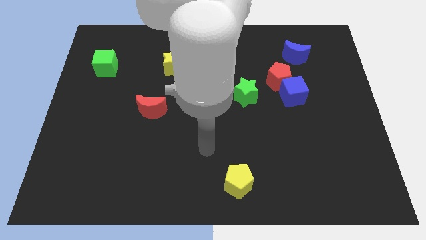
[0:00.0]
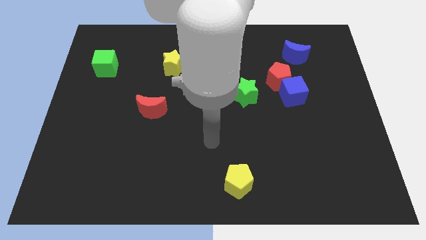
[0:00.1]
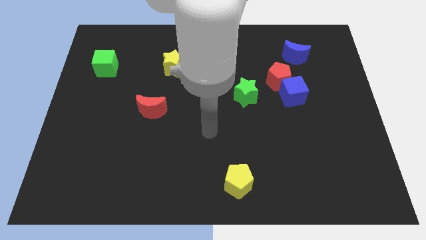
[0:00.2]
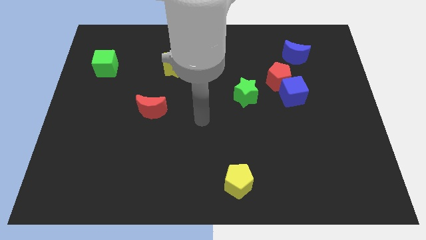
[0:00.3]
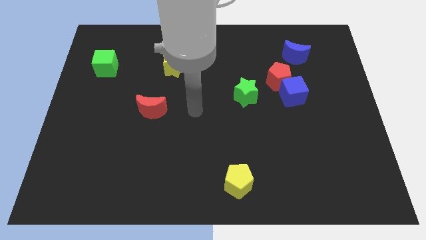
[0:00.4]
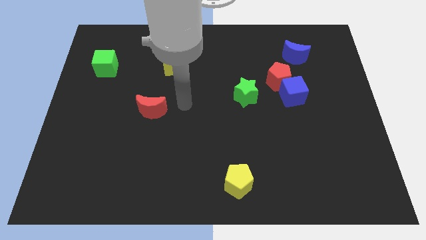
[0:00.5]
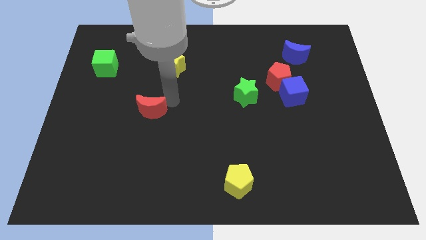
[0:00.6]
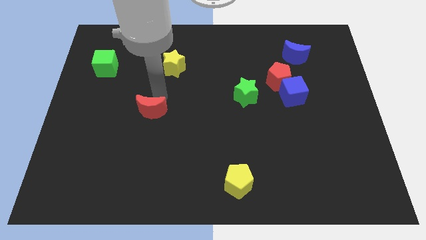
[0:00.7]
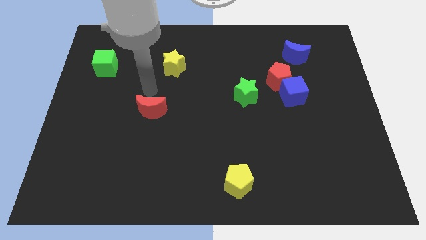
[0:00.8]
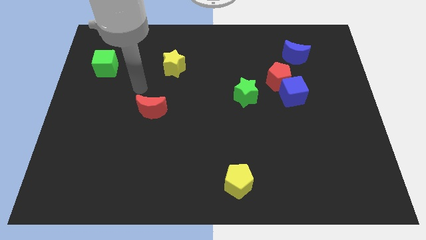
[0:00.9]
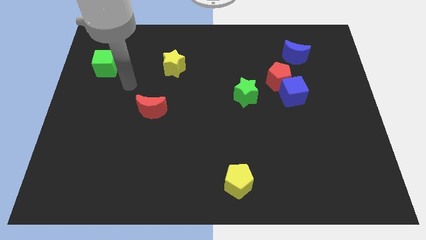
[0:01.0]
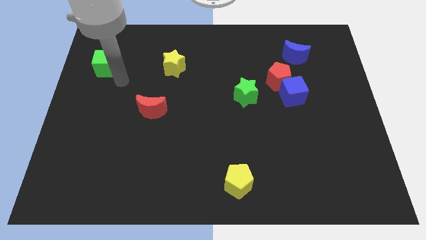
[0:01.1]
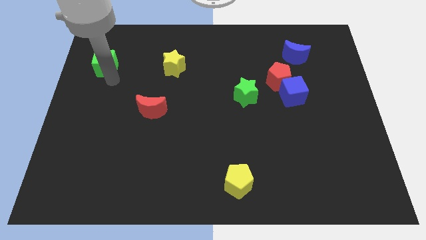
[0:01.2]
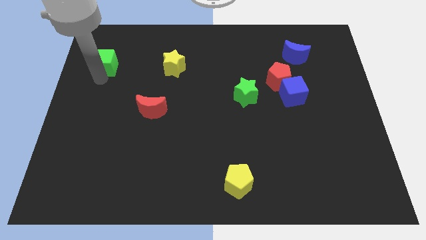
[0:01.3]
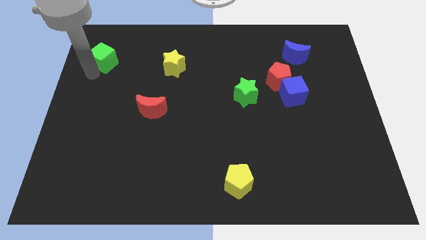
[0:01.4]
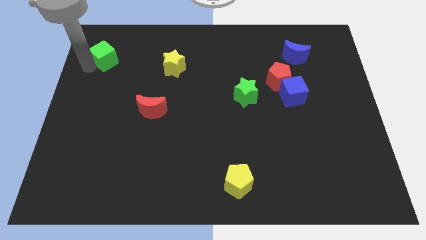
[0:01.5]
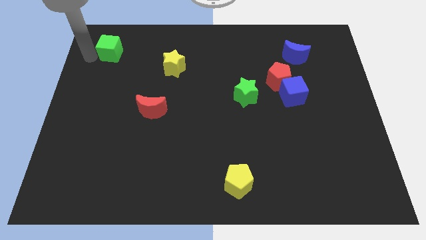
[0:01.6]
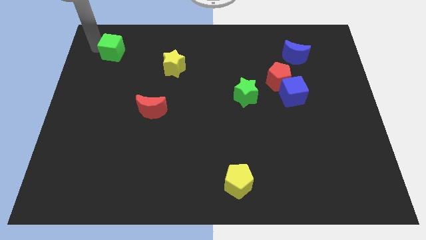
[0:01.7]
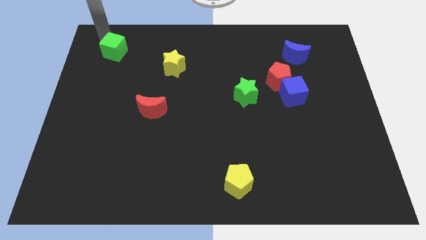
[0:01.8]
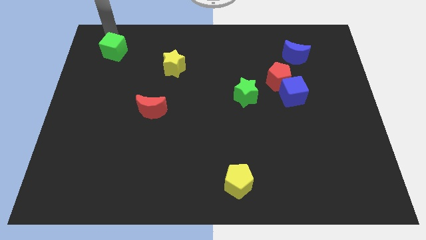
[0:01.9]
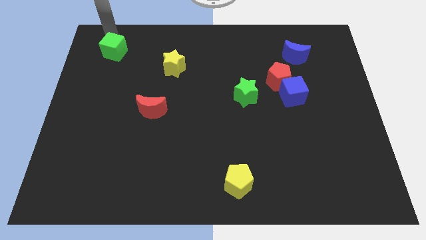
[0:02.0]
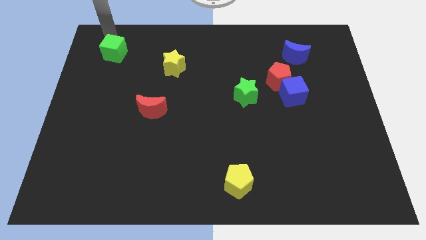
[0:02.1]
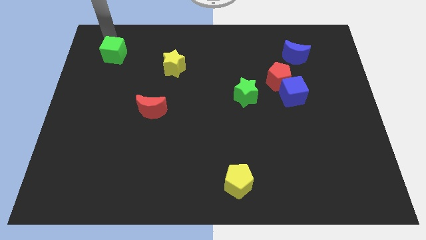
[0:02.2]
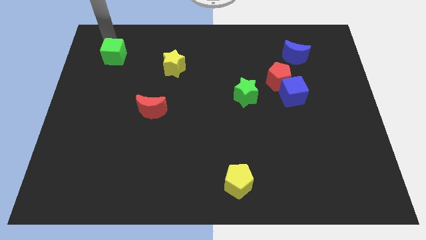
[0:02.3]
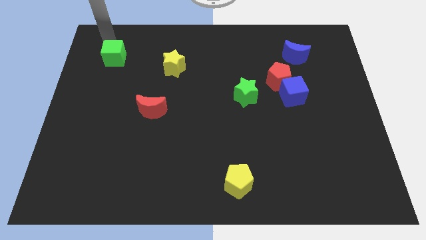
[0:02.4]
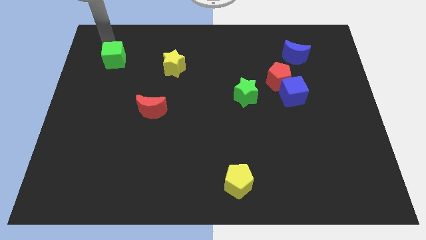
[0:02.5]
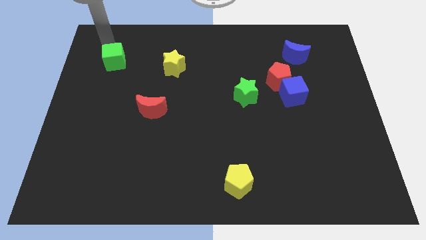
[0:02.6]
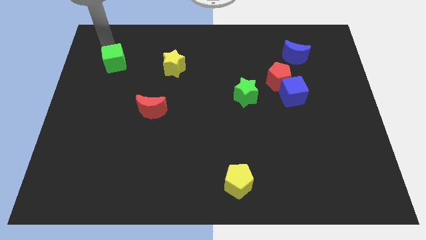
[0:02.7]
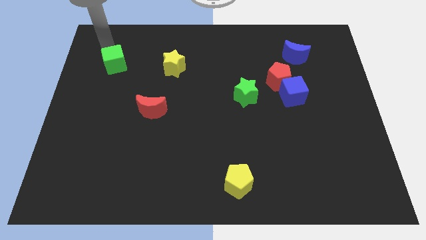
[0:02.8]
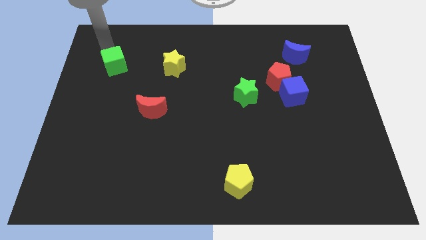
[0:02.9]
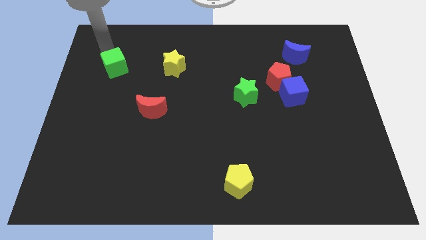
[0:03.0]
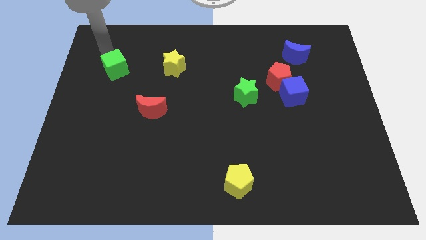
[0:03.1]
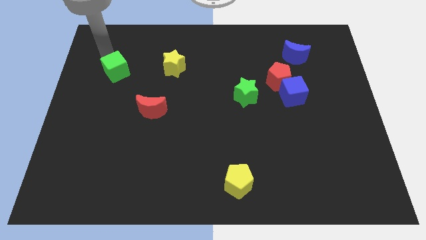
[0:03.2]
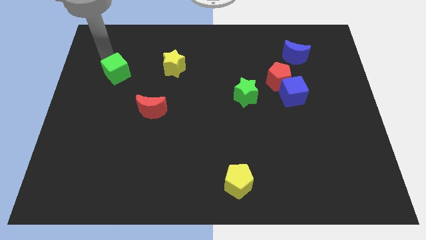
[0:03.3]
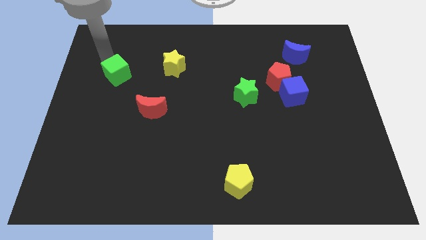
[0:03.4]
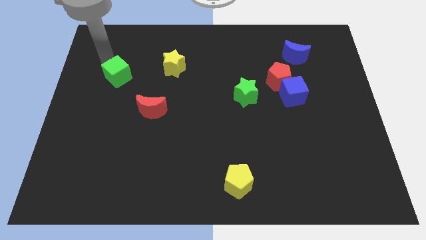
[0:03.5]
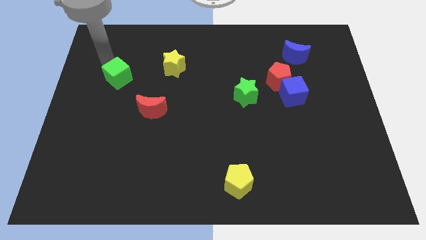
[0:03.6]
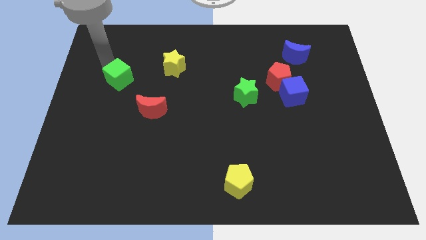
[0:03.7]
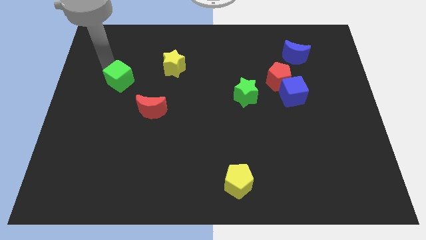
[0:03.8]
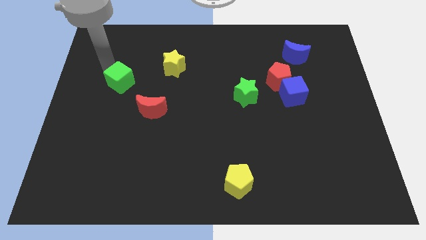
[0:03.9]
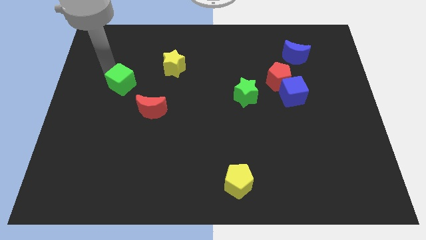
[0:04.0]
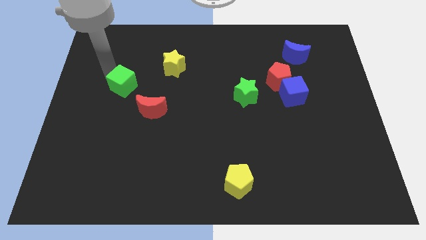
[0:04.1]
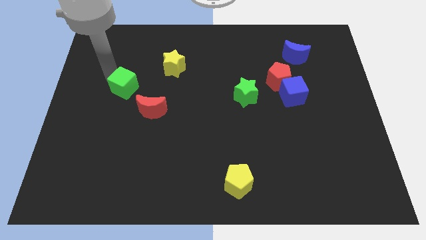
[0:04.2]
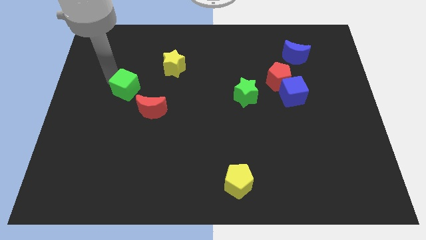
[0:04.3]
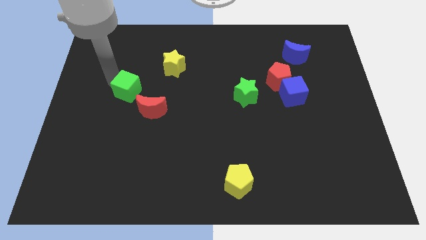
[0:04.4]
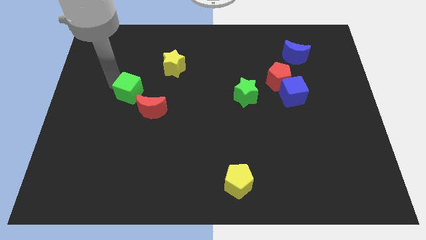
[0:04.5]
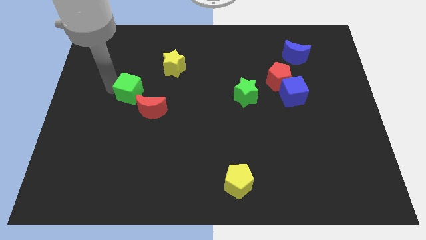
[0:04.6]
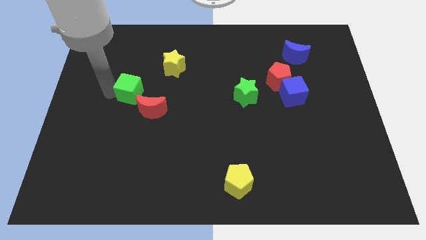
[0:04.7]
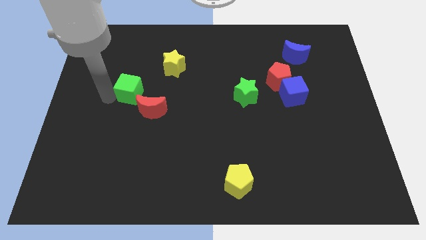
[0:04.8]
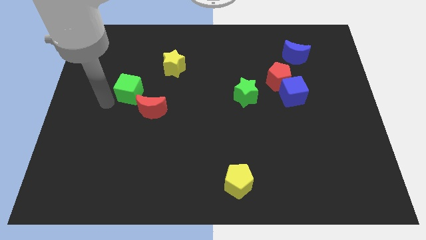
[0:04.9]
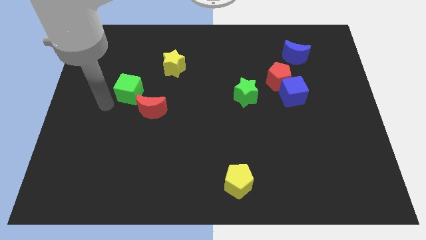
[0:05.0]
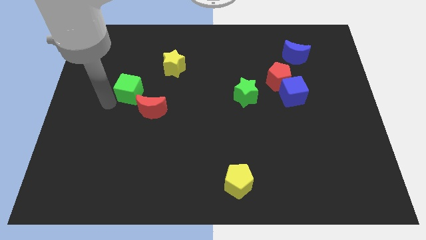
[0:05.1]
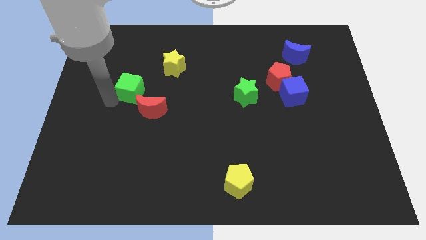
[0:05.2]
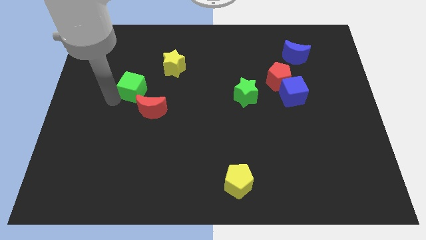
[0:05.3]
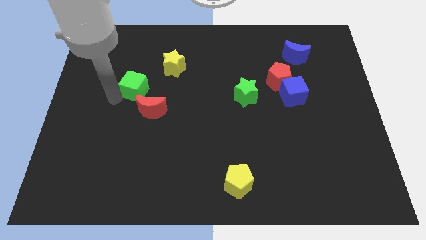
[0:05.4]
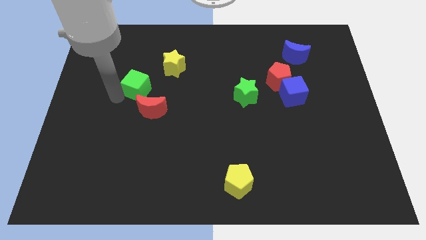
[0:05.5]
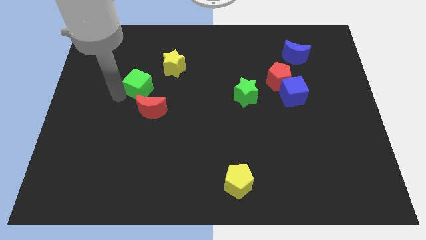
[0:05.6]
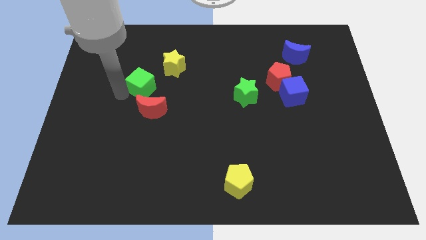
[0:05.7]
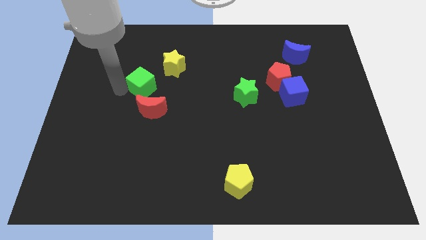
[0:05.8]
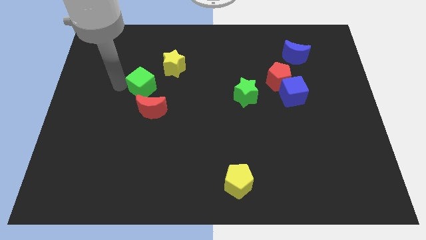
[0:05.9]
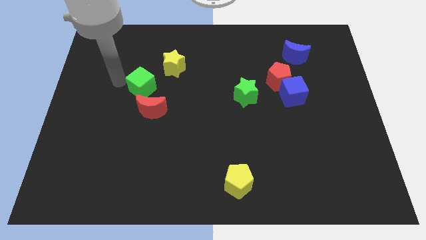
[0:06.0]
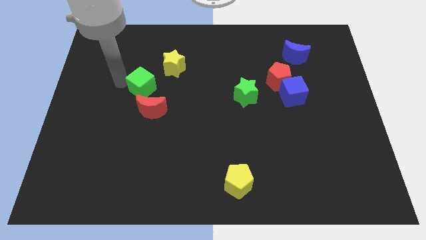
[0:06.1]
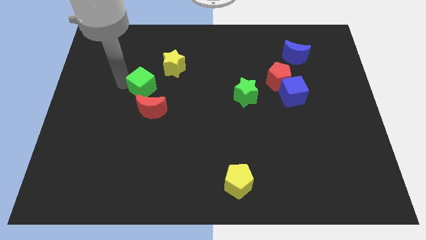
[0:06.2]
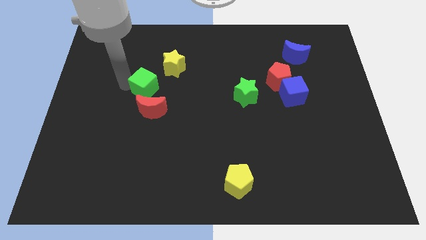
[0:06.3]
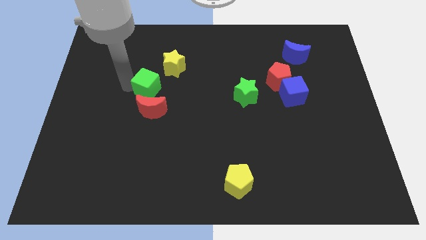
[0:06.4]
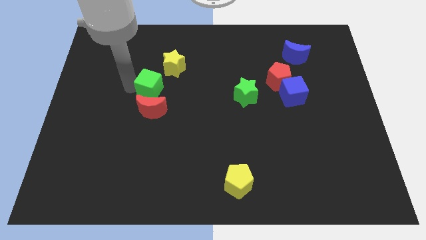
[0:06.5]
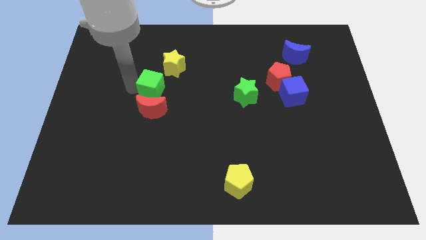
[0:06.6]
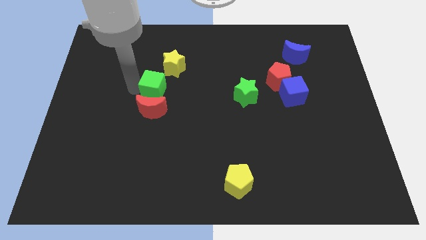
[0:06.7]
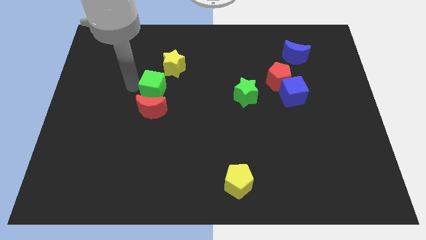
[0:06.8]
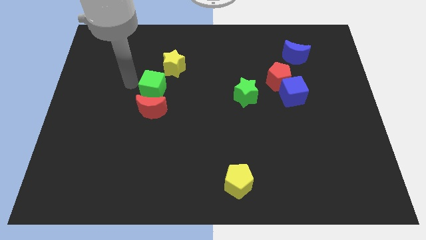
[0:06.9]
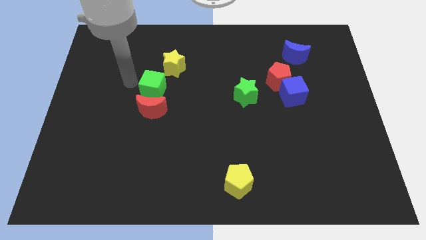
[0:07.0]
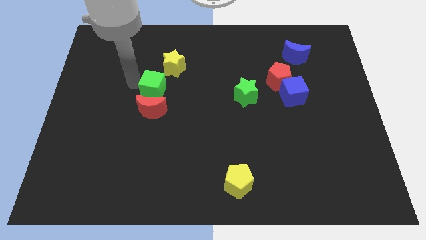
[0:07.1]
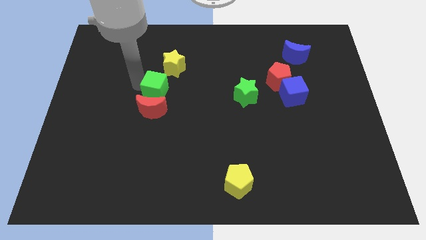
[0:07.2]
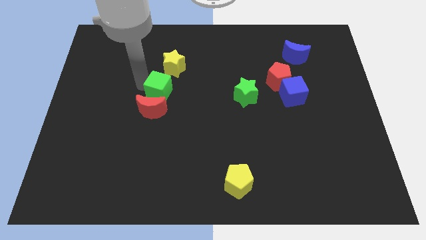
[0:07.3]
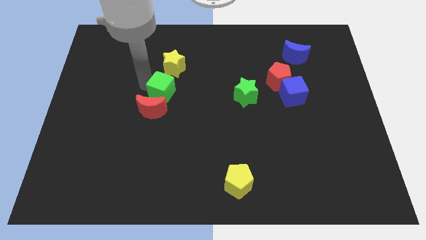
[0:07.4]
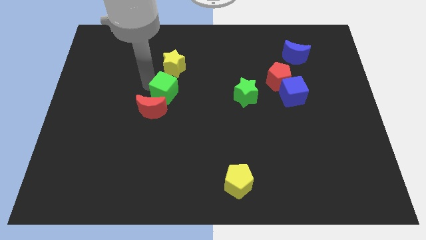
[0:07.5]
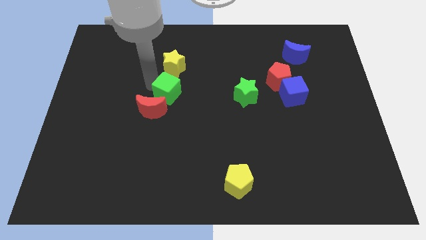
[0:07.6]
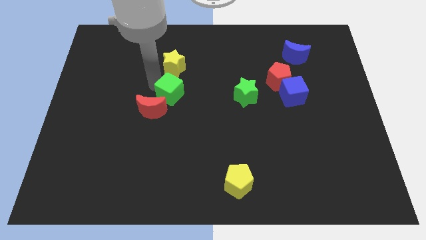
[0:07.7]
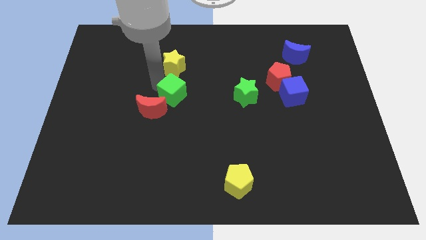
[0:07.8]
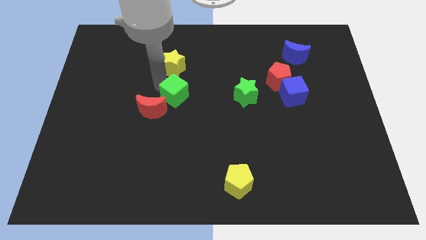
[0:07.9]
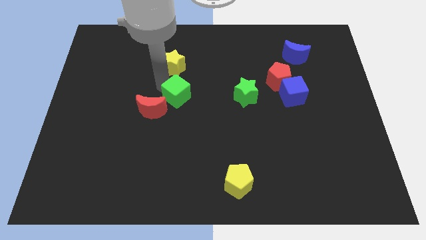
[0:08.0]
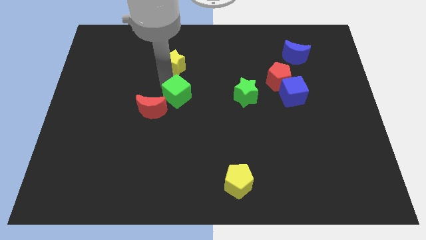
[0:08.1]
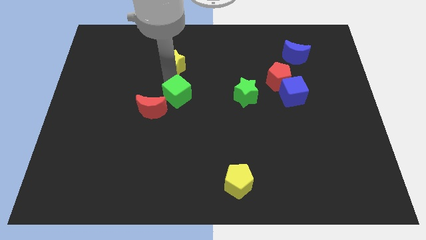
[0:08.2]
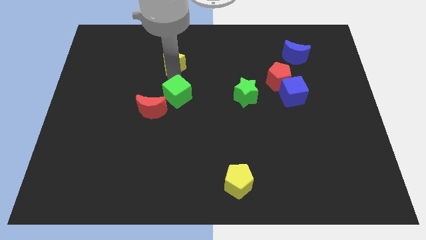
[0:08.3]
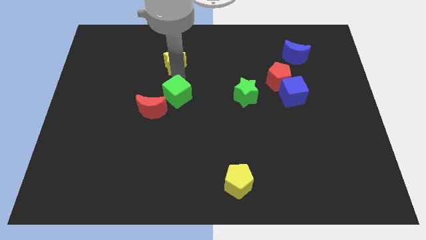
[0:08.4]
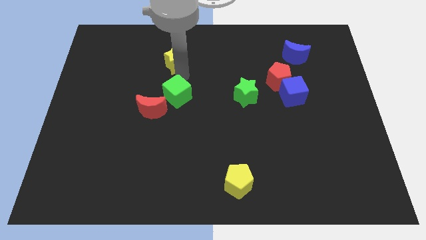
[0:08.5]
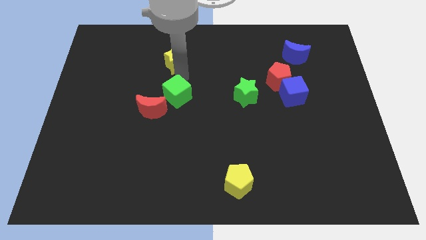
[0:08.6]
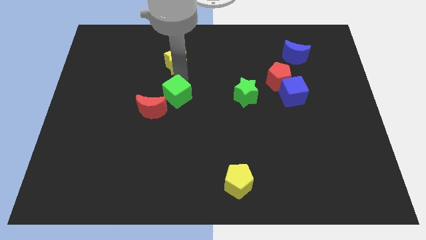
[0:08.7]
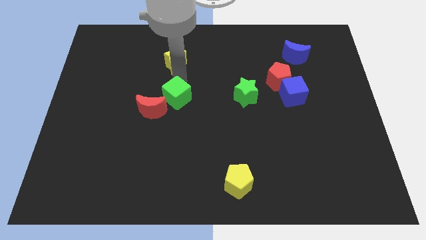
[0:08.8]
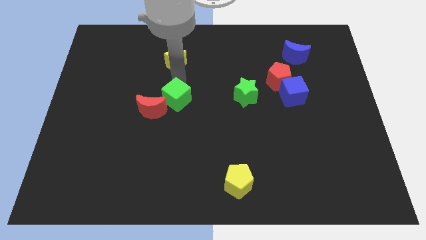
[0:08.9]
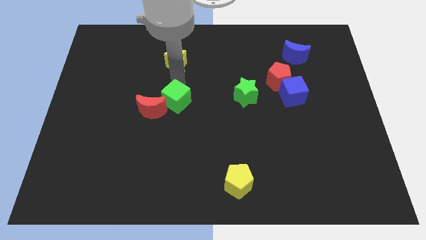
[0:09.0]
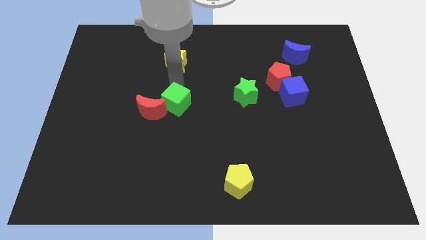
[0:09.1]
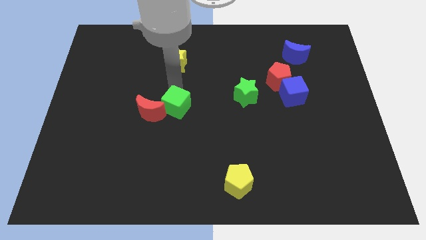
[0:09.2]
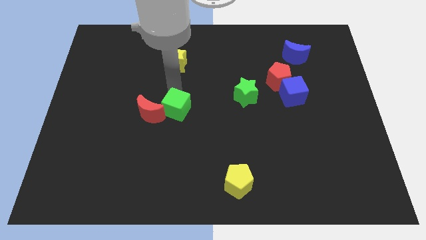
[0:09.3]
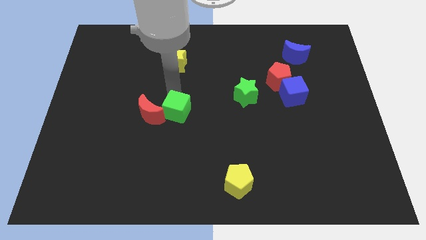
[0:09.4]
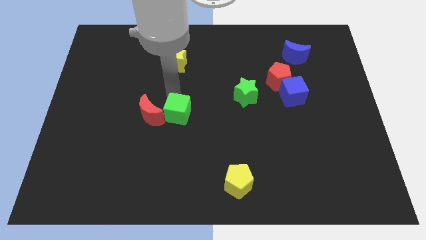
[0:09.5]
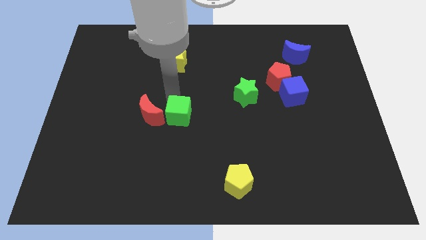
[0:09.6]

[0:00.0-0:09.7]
move the green cube to the bottom right of the red moon
